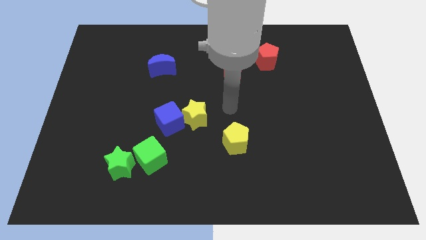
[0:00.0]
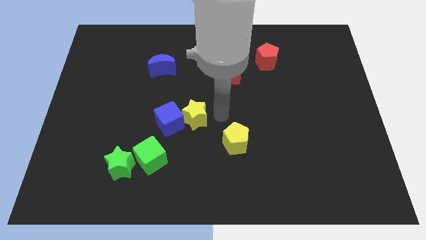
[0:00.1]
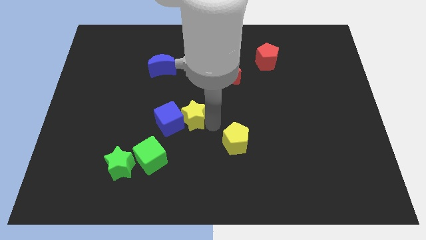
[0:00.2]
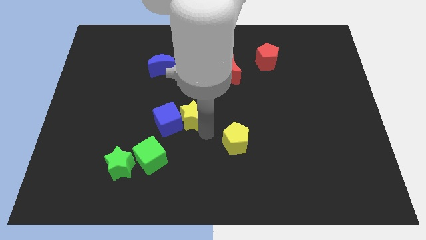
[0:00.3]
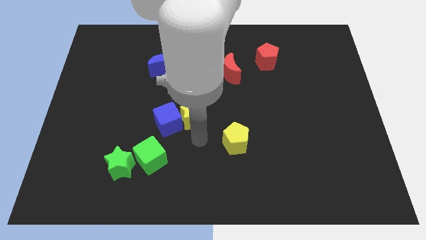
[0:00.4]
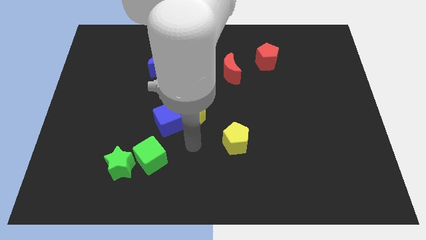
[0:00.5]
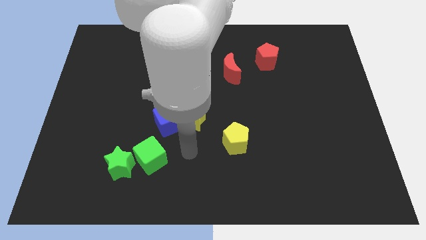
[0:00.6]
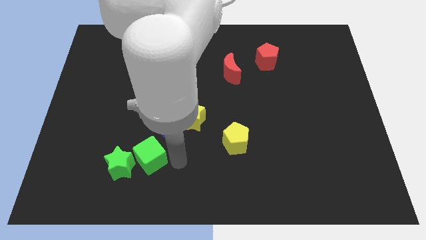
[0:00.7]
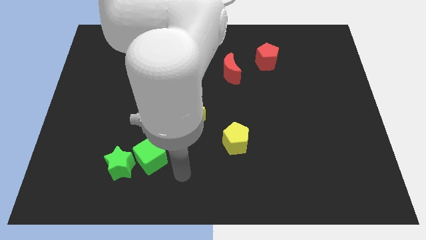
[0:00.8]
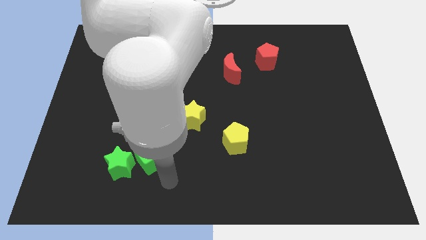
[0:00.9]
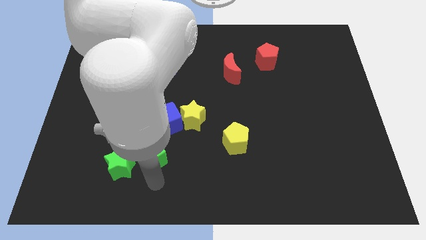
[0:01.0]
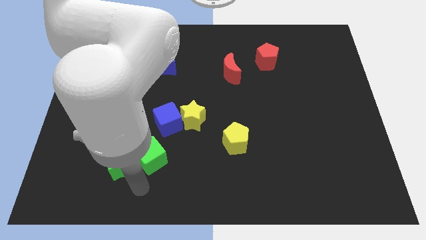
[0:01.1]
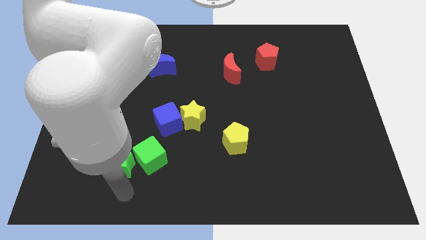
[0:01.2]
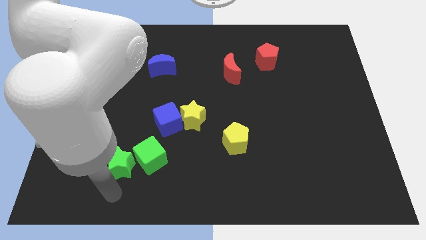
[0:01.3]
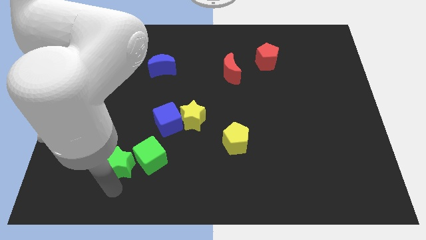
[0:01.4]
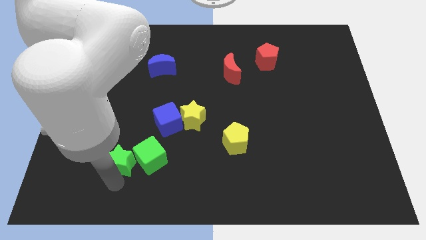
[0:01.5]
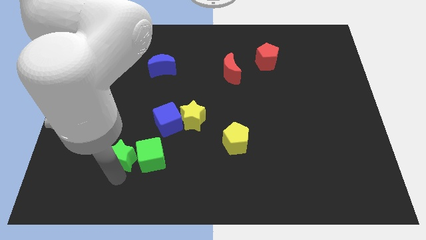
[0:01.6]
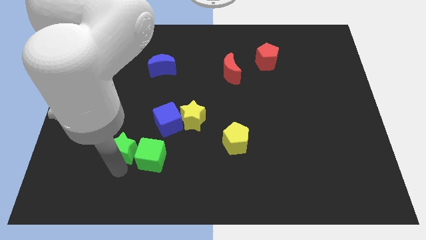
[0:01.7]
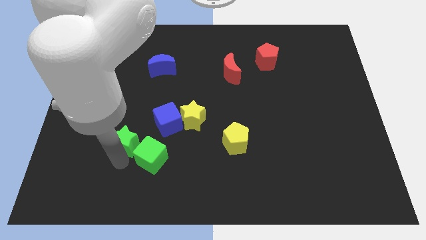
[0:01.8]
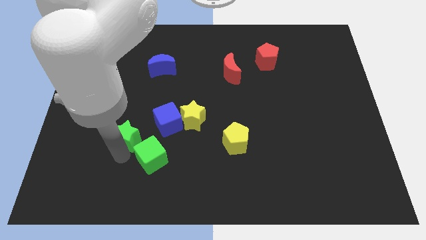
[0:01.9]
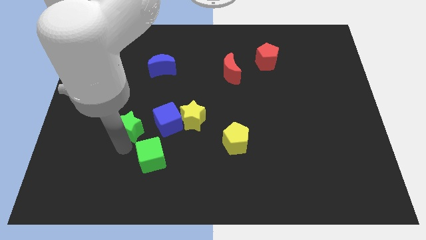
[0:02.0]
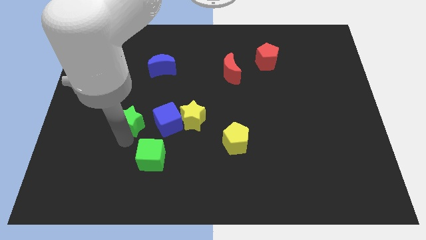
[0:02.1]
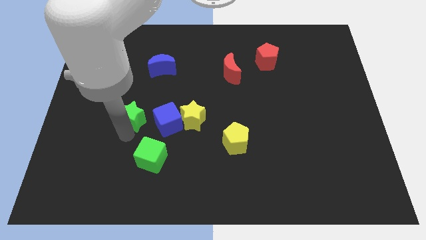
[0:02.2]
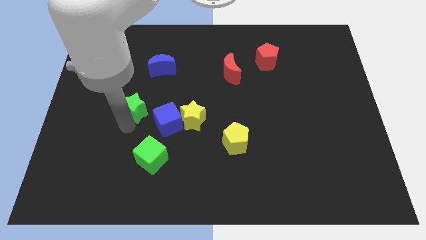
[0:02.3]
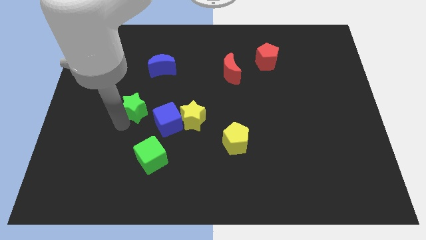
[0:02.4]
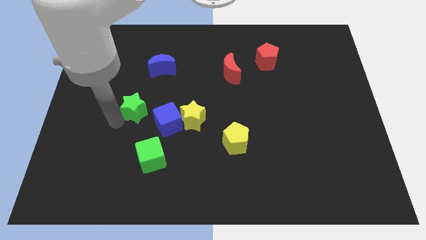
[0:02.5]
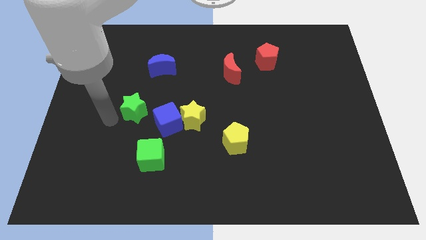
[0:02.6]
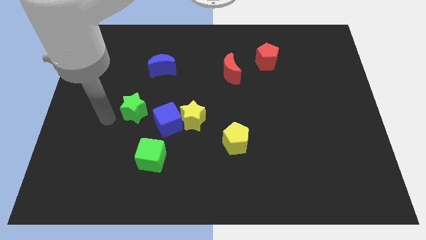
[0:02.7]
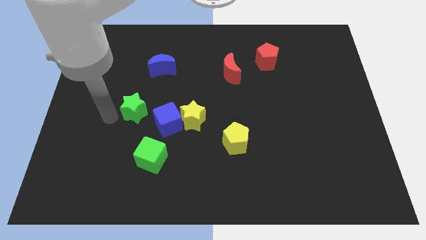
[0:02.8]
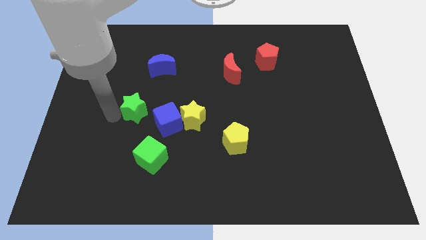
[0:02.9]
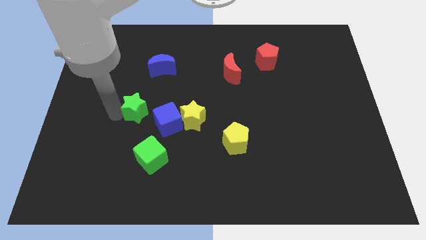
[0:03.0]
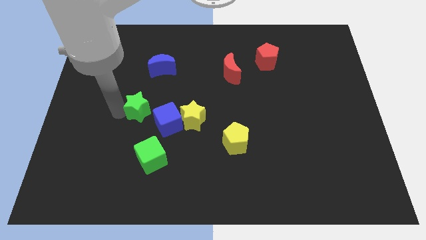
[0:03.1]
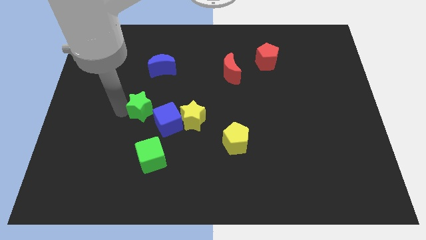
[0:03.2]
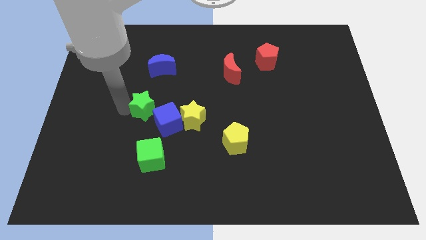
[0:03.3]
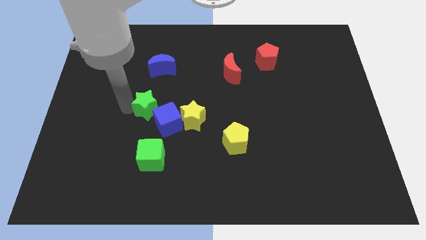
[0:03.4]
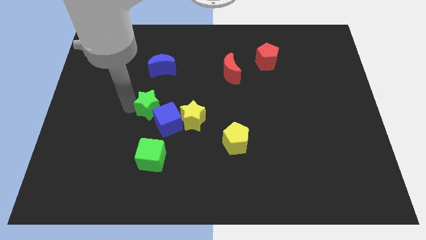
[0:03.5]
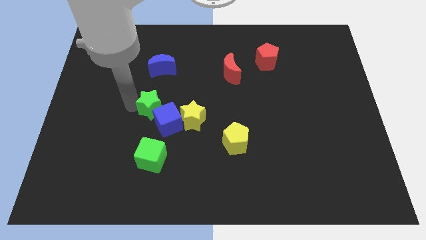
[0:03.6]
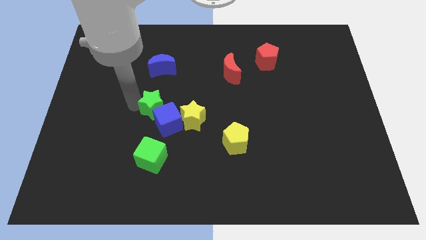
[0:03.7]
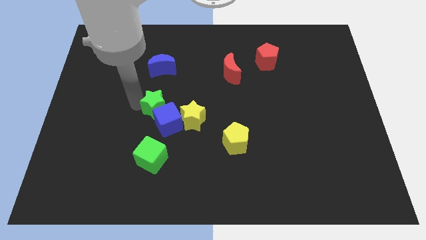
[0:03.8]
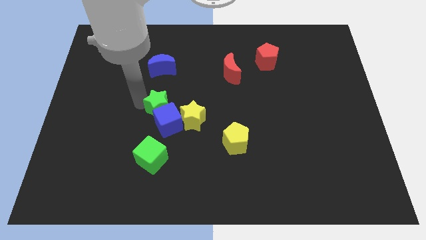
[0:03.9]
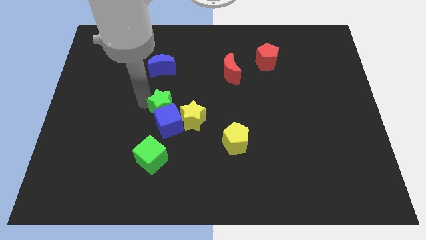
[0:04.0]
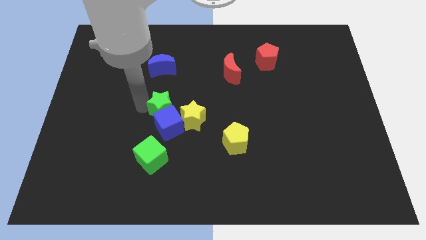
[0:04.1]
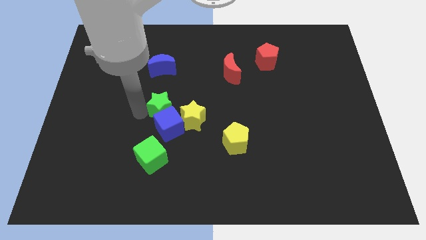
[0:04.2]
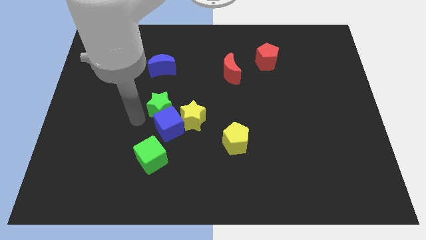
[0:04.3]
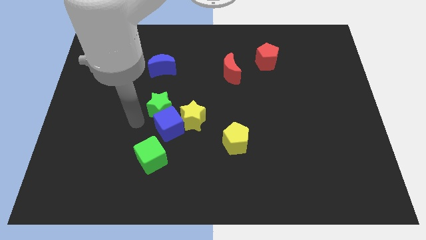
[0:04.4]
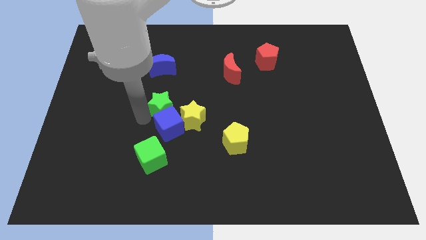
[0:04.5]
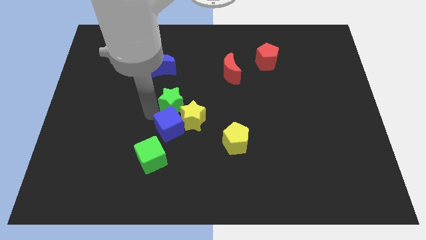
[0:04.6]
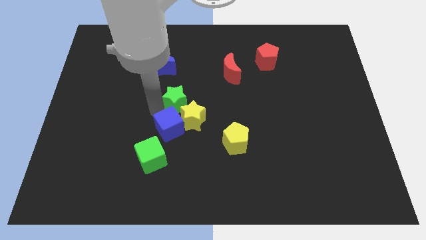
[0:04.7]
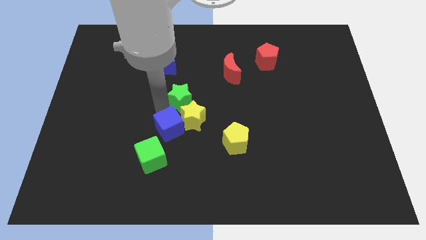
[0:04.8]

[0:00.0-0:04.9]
move the green star upwards and to the right

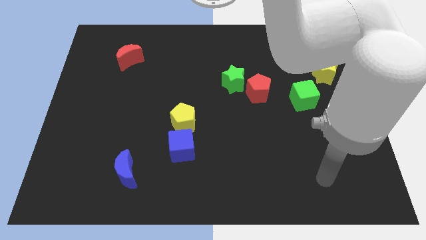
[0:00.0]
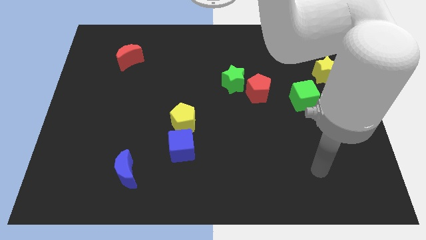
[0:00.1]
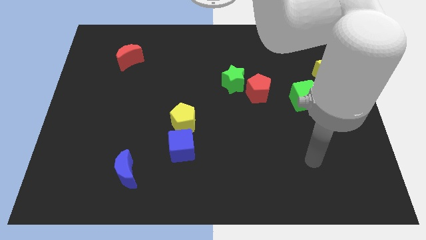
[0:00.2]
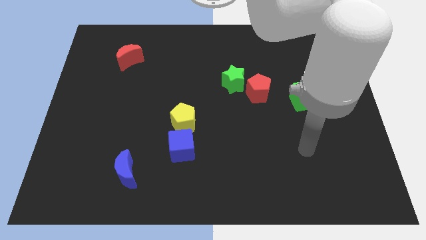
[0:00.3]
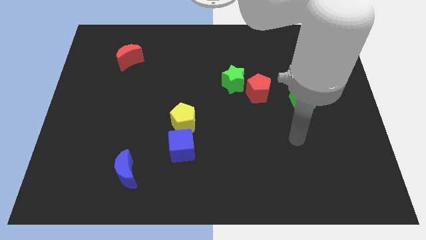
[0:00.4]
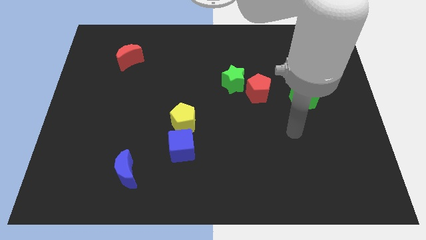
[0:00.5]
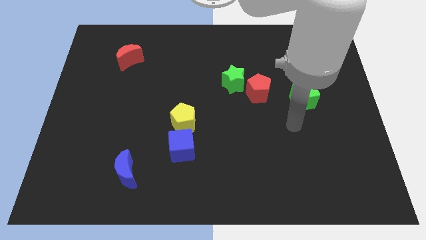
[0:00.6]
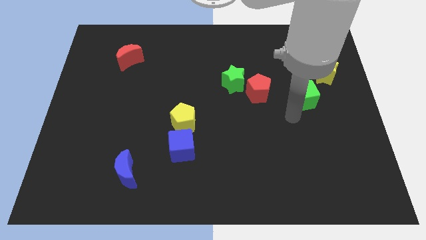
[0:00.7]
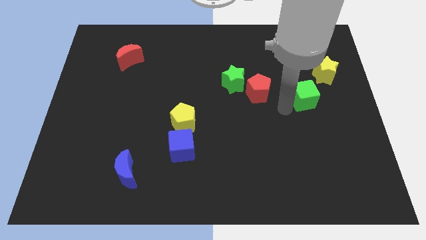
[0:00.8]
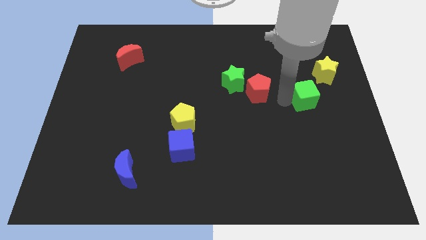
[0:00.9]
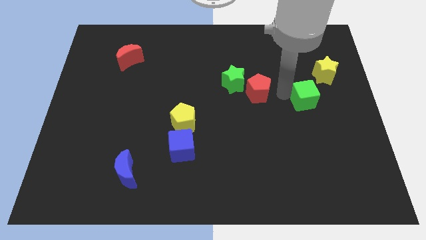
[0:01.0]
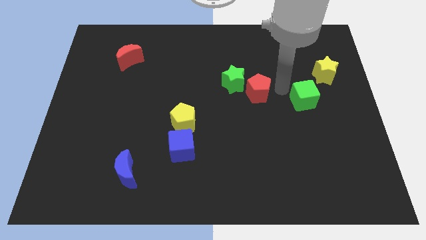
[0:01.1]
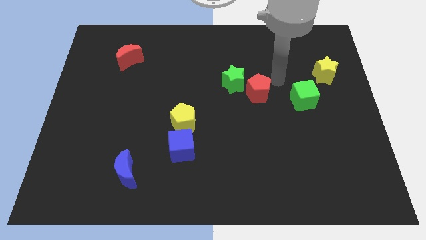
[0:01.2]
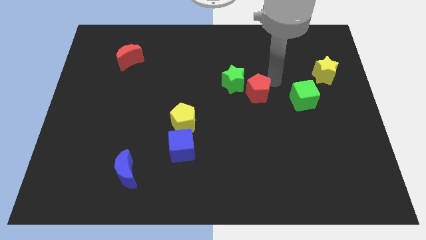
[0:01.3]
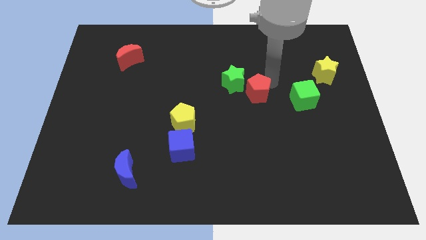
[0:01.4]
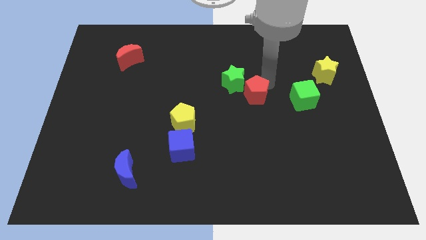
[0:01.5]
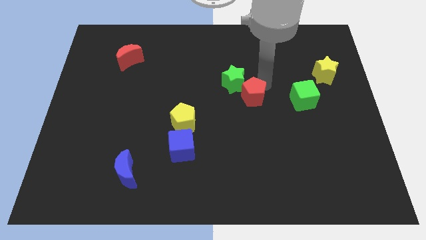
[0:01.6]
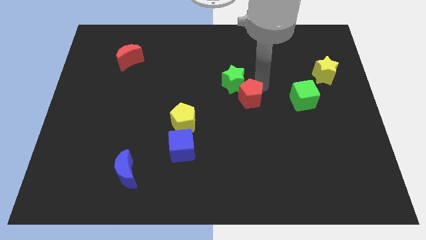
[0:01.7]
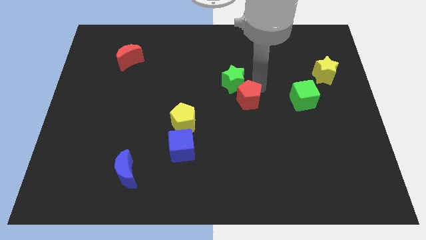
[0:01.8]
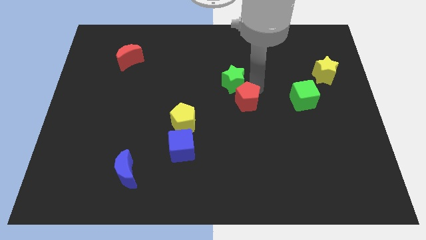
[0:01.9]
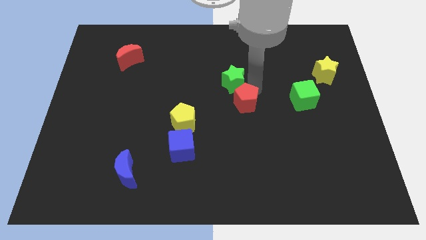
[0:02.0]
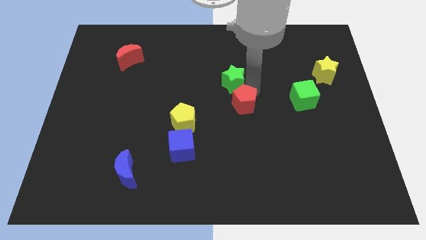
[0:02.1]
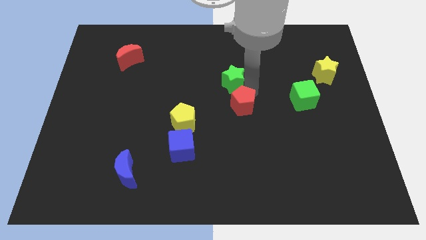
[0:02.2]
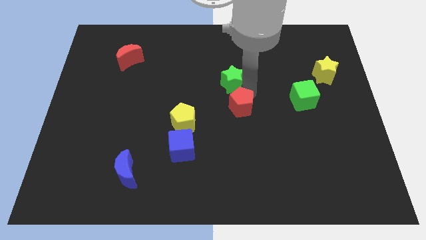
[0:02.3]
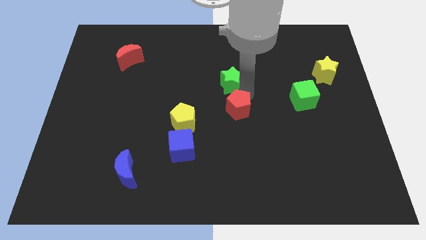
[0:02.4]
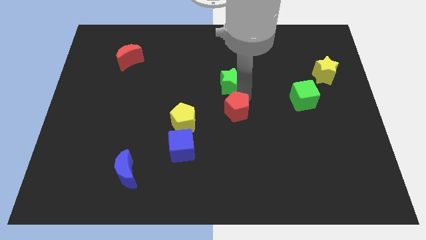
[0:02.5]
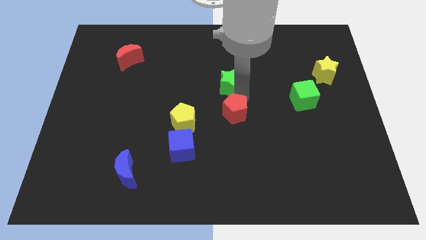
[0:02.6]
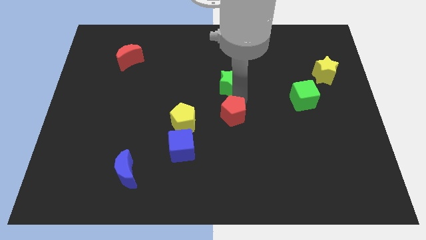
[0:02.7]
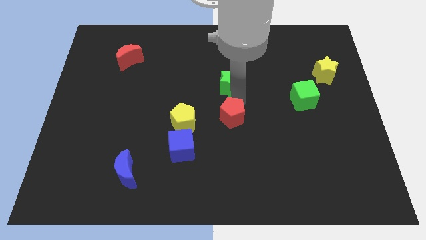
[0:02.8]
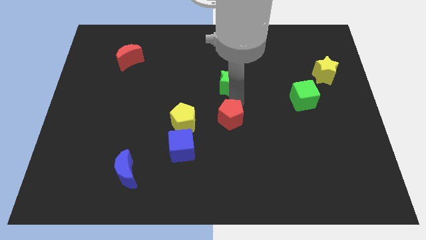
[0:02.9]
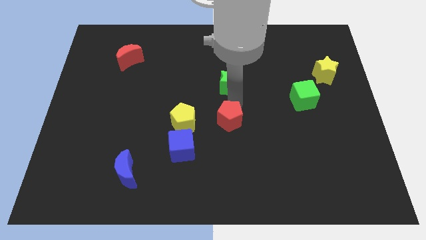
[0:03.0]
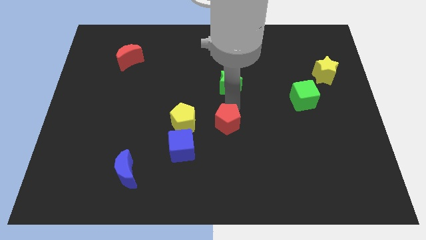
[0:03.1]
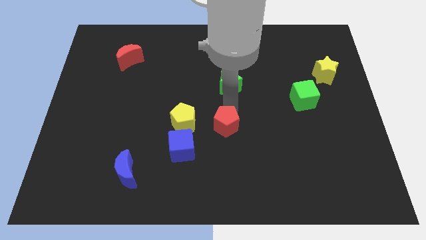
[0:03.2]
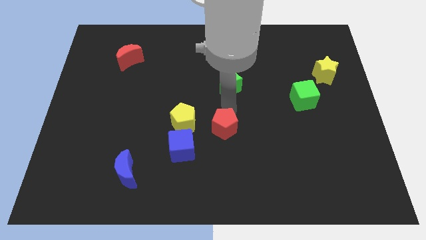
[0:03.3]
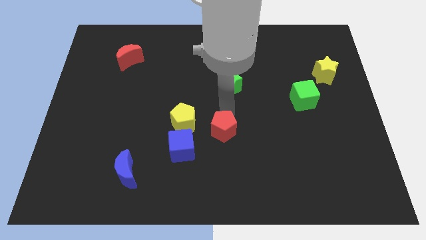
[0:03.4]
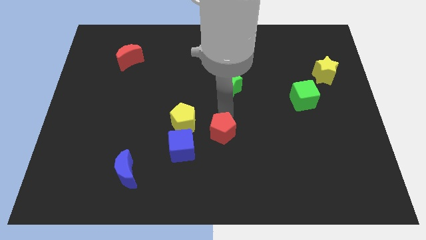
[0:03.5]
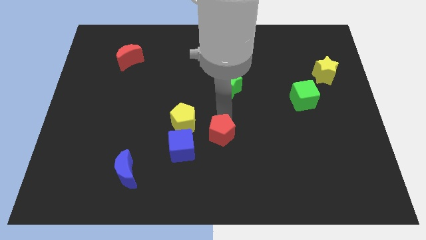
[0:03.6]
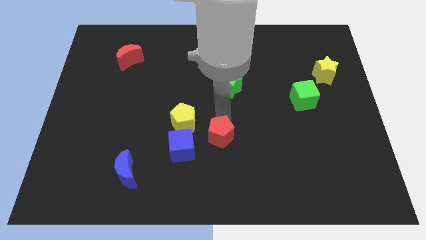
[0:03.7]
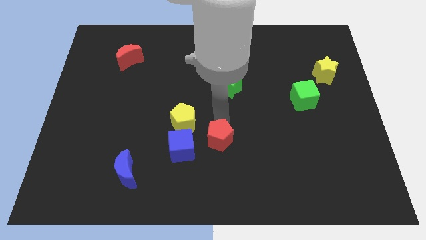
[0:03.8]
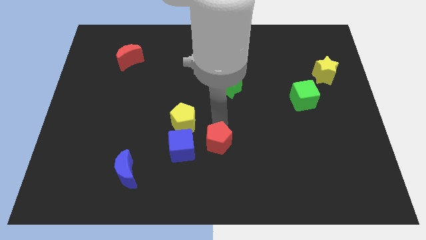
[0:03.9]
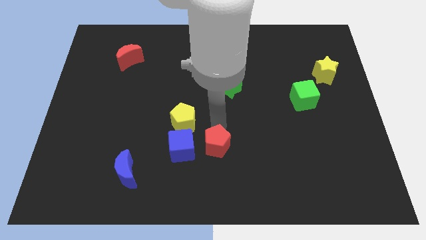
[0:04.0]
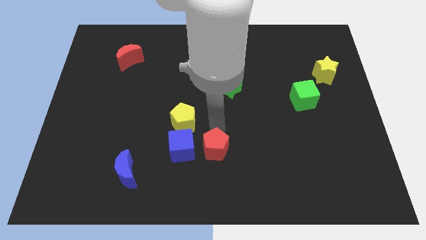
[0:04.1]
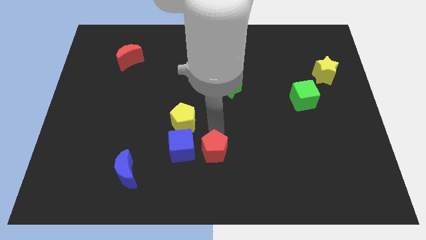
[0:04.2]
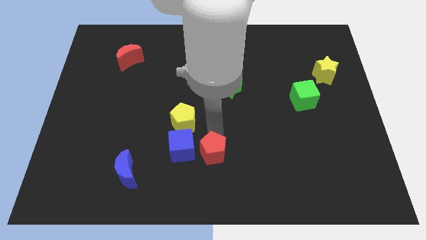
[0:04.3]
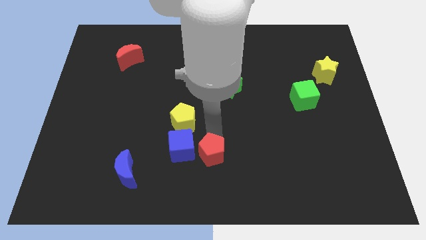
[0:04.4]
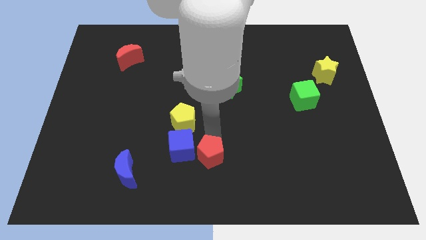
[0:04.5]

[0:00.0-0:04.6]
push the red pentagon down and to the left diagonally
